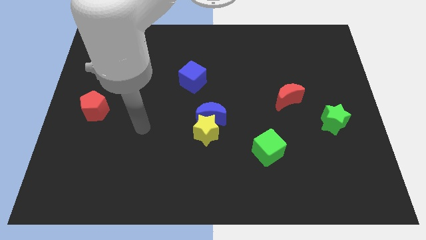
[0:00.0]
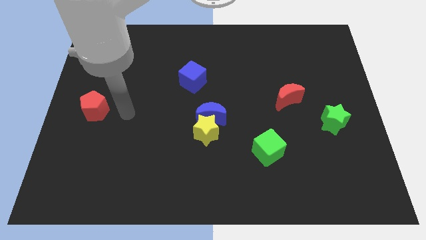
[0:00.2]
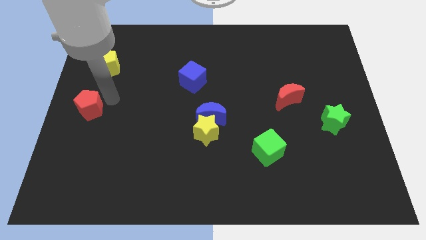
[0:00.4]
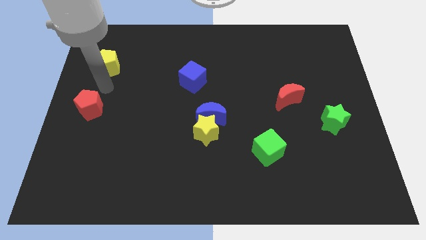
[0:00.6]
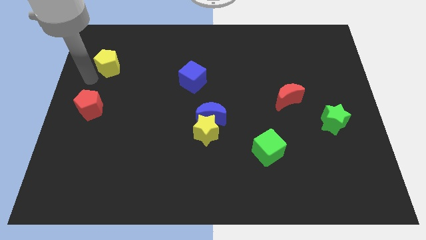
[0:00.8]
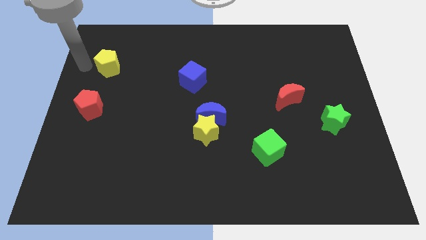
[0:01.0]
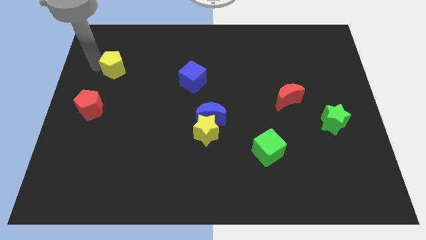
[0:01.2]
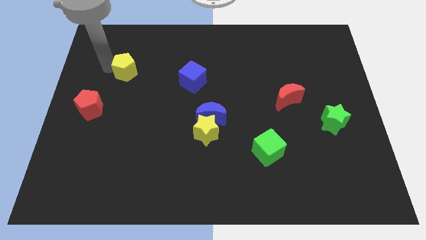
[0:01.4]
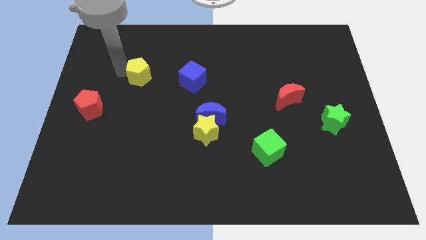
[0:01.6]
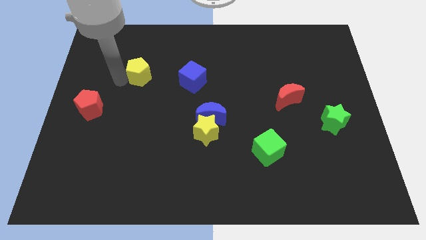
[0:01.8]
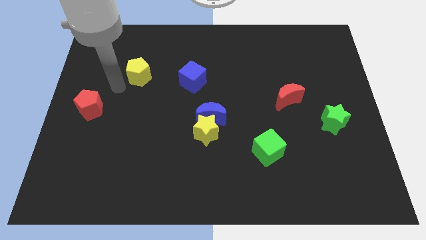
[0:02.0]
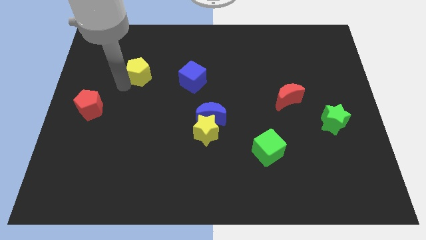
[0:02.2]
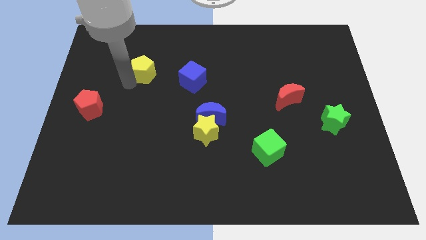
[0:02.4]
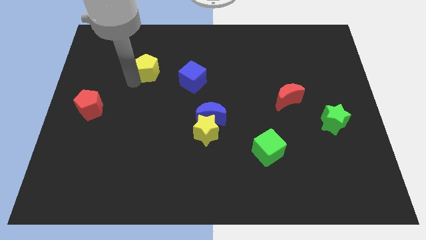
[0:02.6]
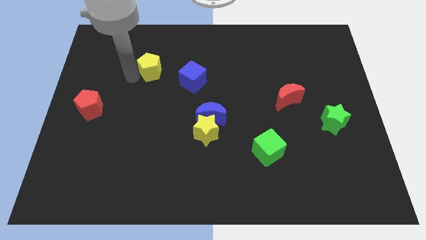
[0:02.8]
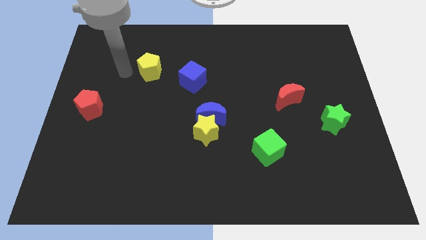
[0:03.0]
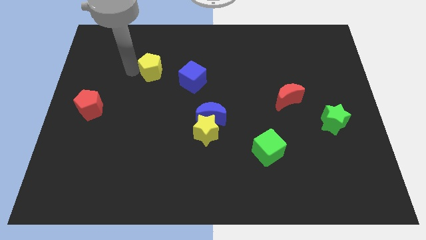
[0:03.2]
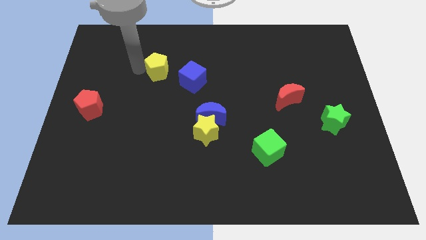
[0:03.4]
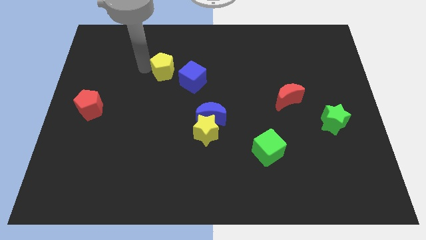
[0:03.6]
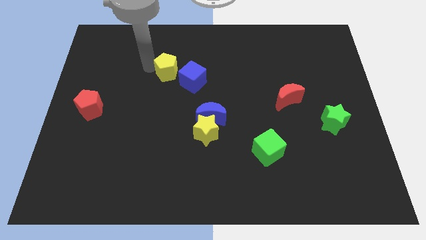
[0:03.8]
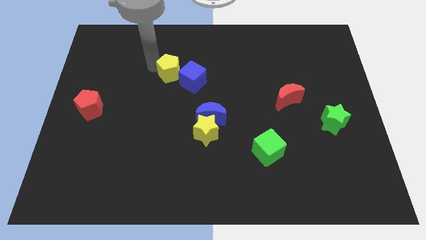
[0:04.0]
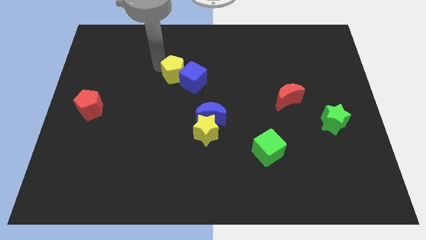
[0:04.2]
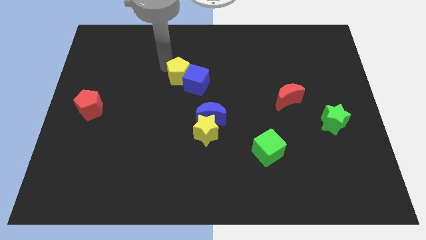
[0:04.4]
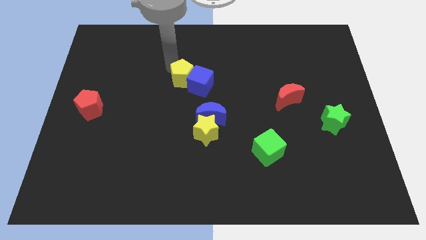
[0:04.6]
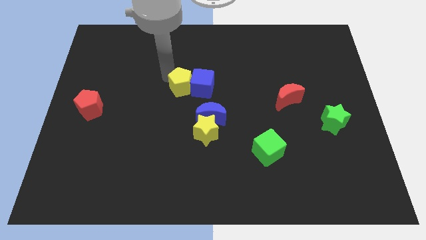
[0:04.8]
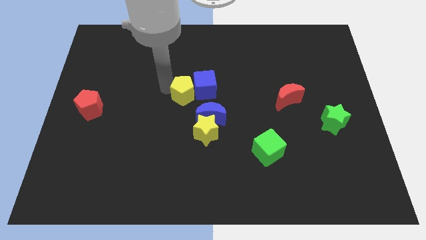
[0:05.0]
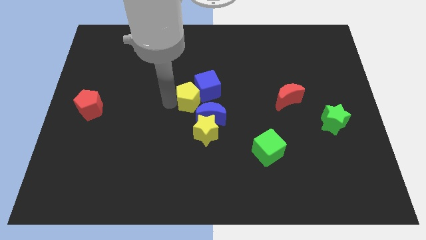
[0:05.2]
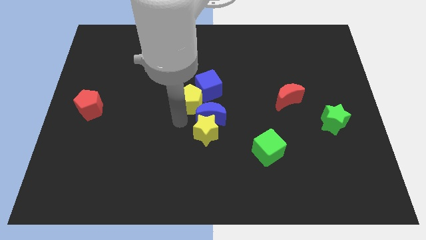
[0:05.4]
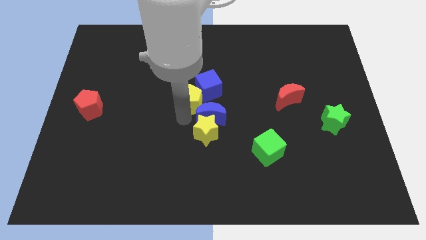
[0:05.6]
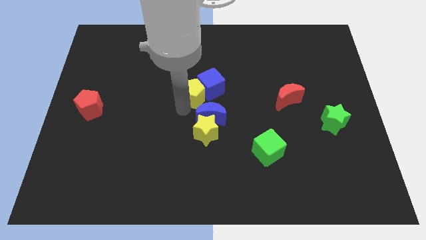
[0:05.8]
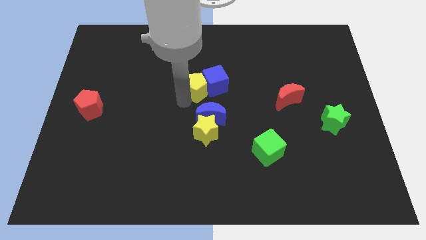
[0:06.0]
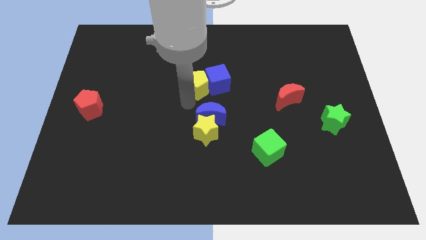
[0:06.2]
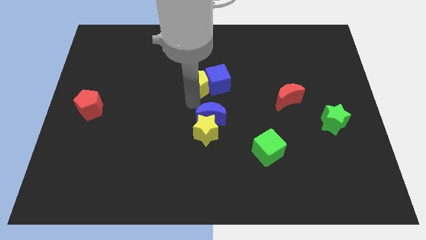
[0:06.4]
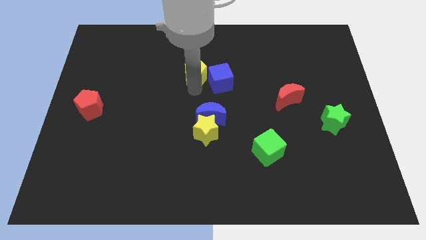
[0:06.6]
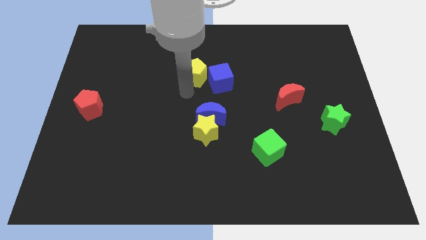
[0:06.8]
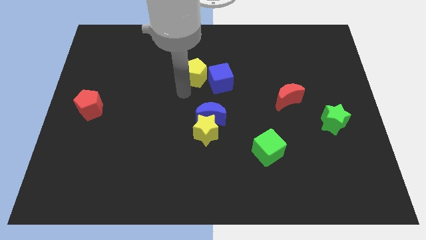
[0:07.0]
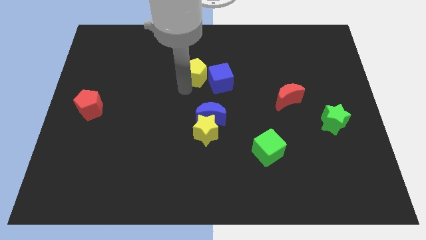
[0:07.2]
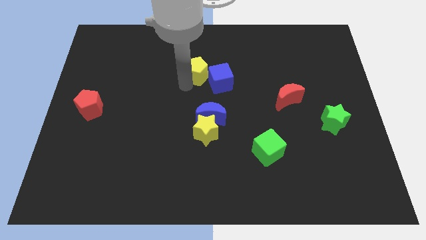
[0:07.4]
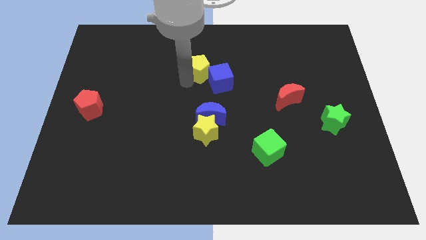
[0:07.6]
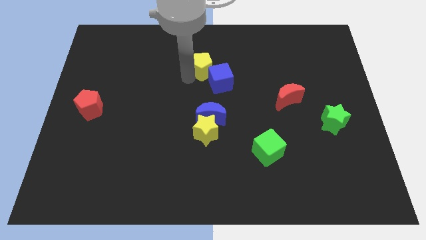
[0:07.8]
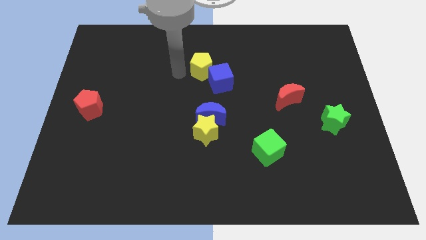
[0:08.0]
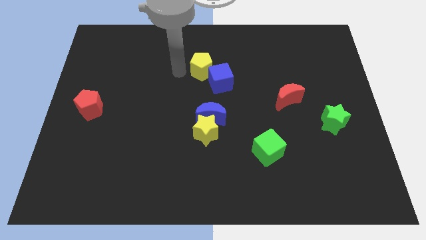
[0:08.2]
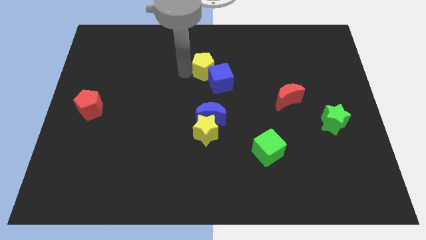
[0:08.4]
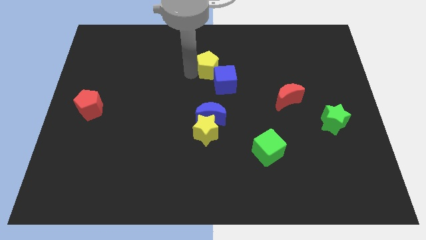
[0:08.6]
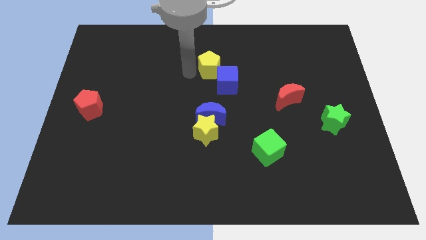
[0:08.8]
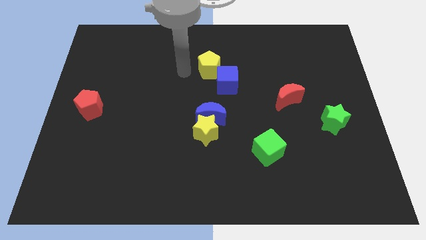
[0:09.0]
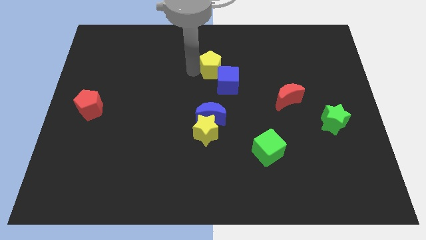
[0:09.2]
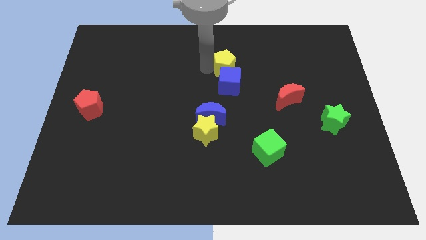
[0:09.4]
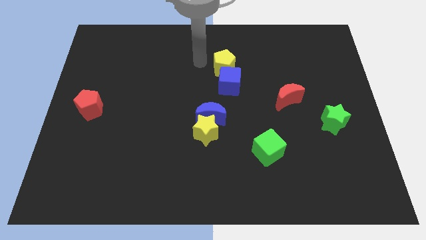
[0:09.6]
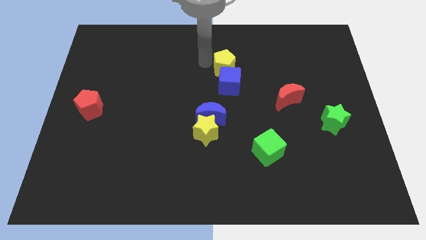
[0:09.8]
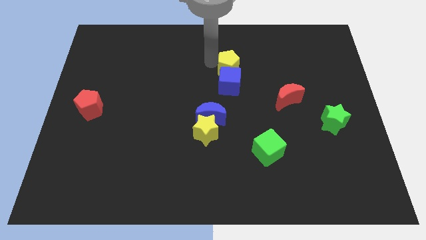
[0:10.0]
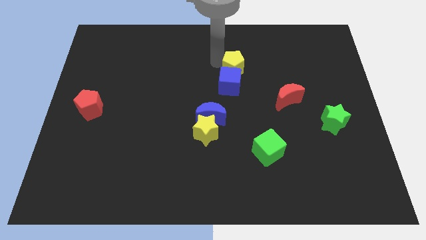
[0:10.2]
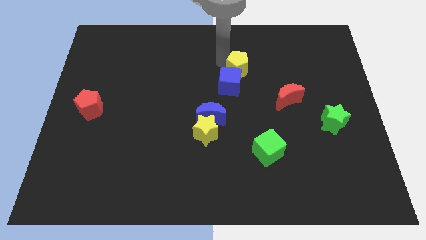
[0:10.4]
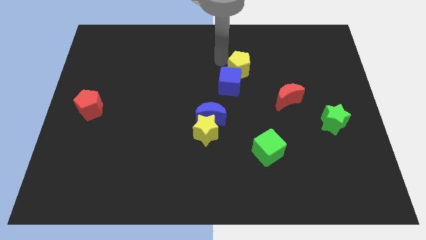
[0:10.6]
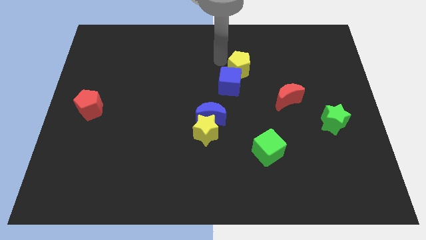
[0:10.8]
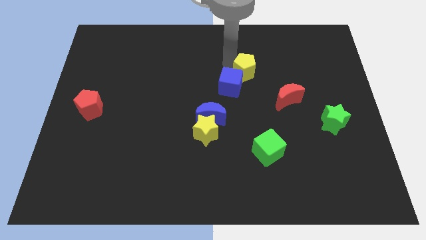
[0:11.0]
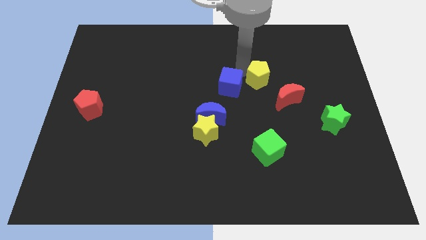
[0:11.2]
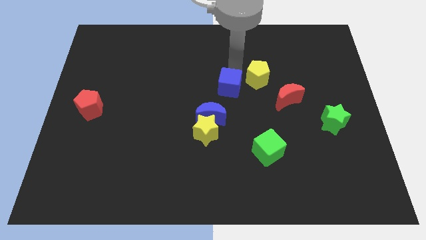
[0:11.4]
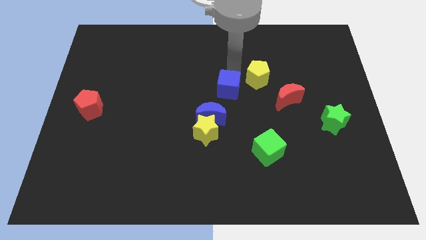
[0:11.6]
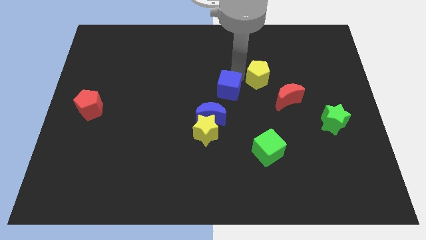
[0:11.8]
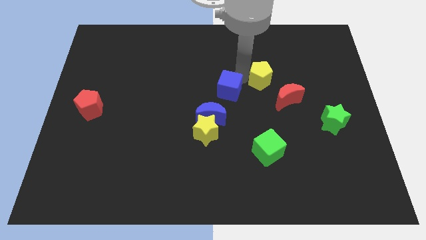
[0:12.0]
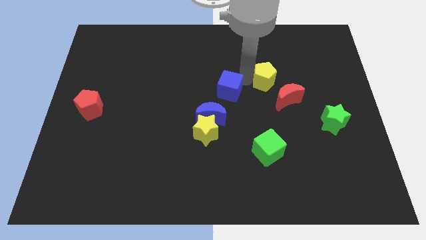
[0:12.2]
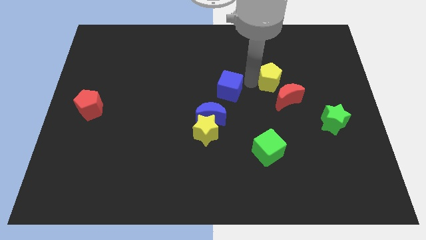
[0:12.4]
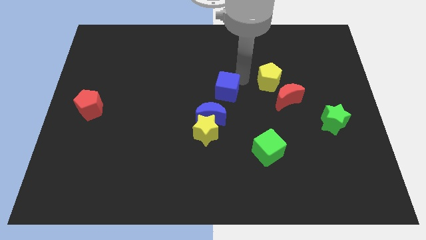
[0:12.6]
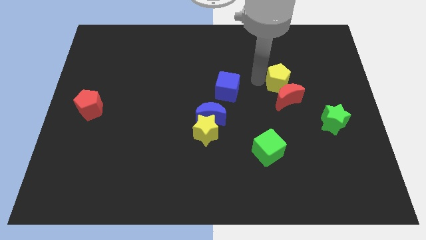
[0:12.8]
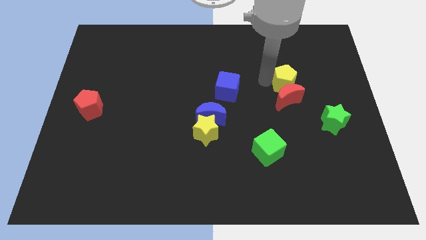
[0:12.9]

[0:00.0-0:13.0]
put the yellow pentagon to the top right side of the red moon
